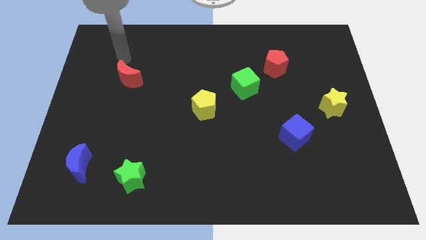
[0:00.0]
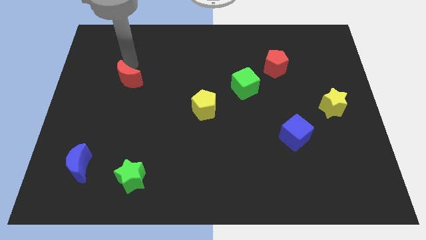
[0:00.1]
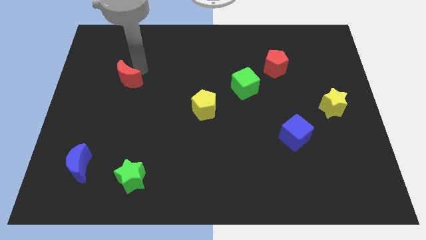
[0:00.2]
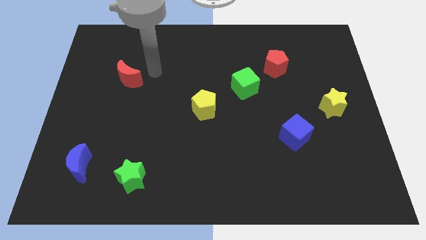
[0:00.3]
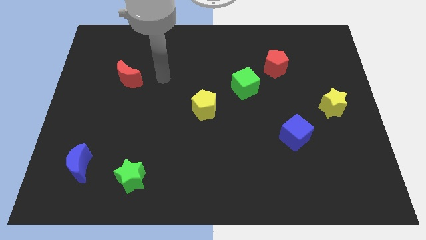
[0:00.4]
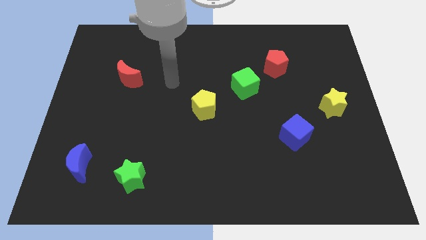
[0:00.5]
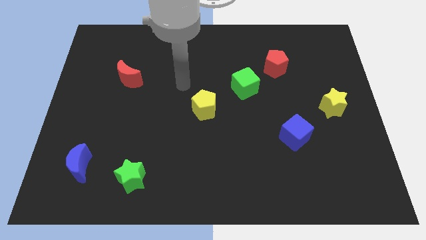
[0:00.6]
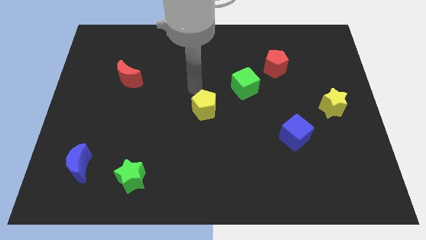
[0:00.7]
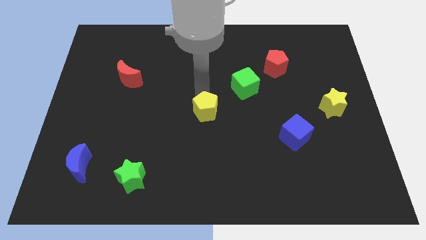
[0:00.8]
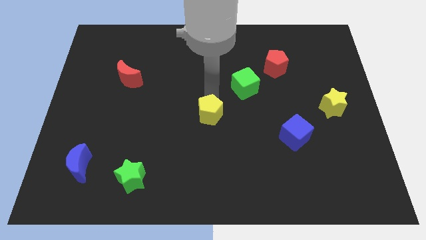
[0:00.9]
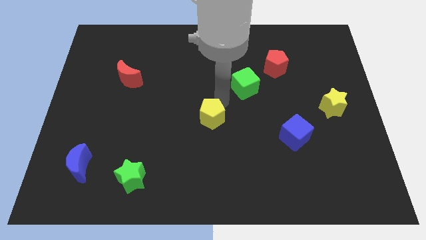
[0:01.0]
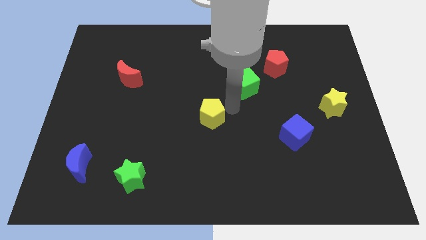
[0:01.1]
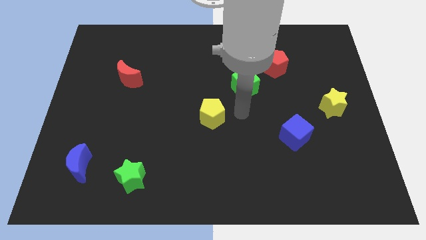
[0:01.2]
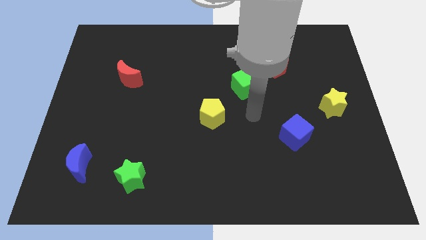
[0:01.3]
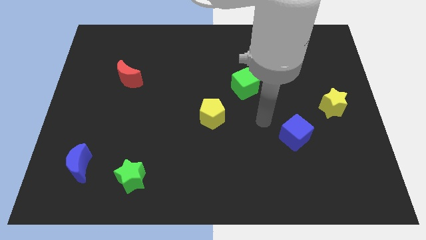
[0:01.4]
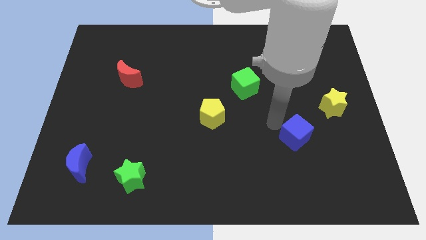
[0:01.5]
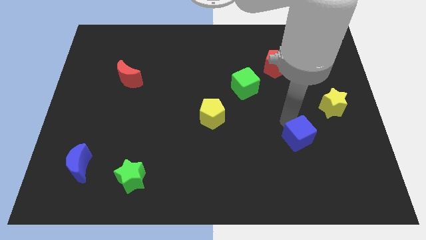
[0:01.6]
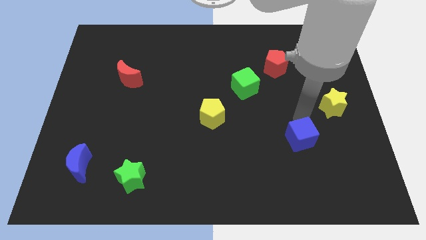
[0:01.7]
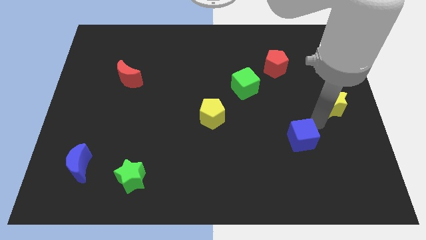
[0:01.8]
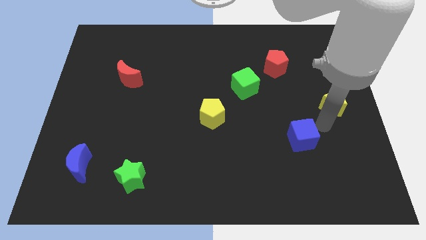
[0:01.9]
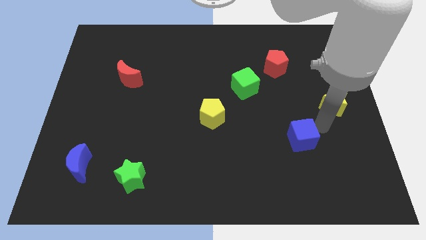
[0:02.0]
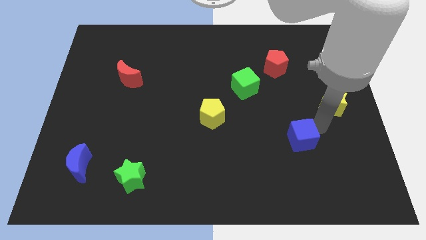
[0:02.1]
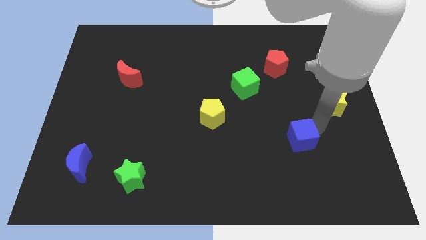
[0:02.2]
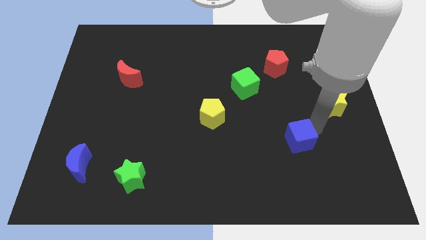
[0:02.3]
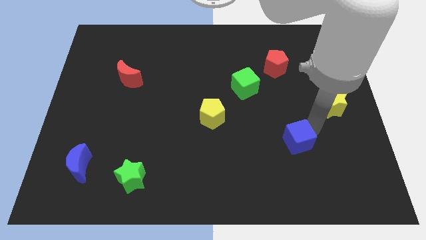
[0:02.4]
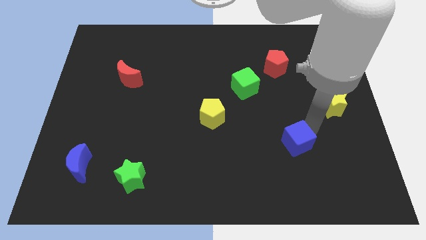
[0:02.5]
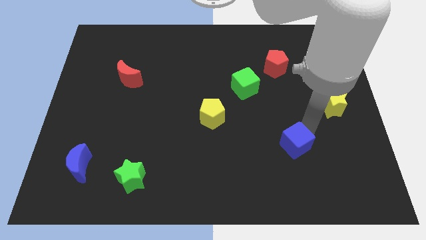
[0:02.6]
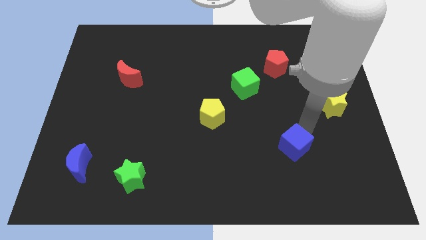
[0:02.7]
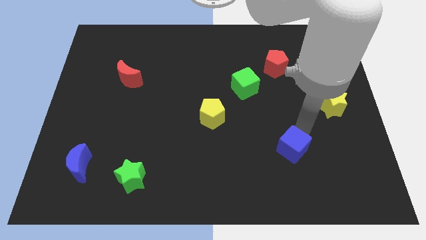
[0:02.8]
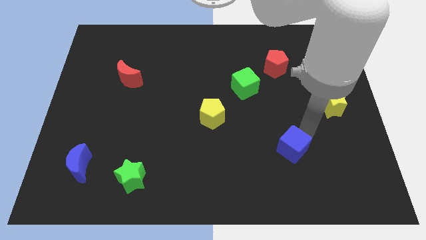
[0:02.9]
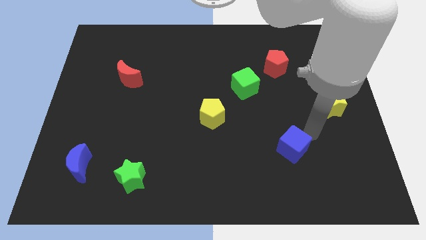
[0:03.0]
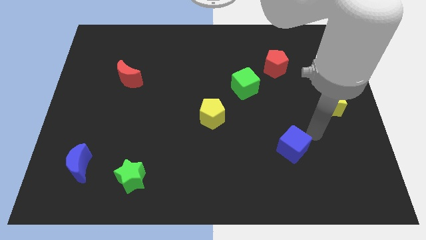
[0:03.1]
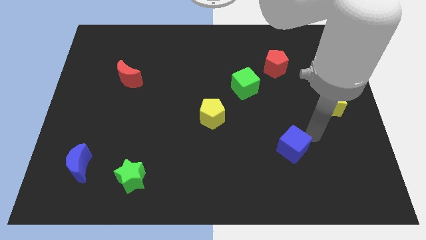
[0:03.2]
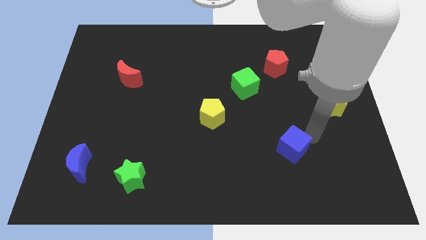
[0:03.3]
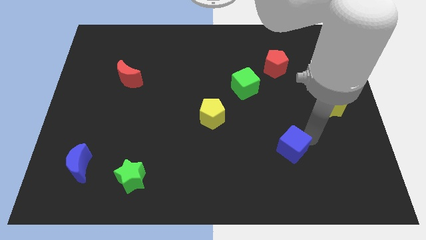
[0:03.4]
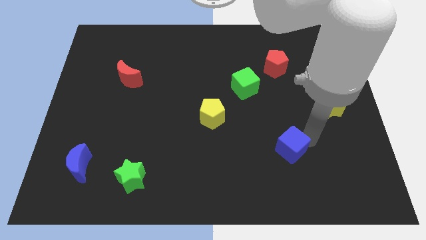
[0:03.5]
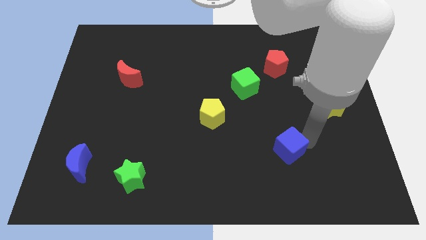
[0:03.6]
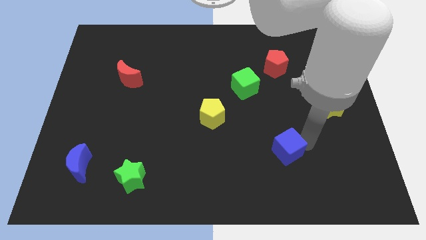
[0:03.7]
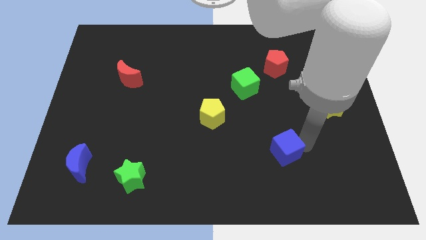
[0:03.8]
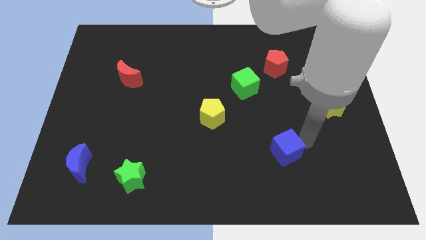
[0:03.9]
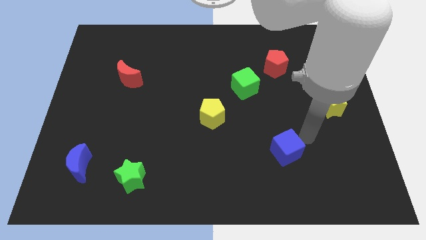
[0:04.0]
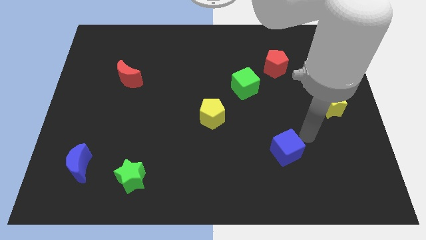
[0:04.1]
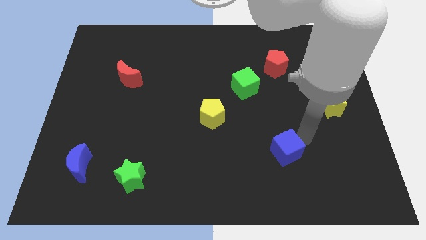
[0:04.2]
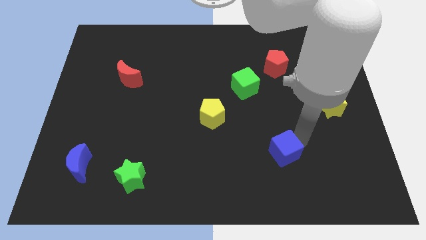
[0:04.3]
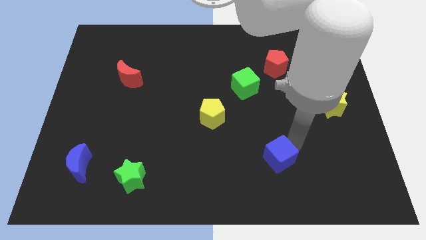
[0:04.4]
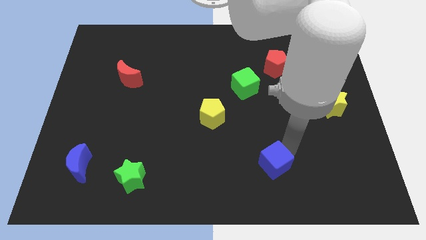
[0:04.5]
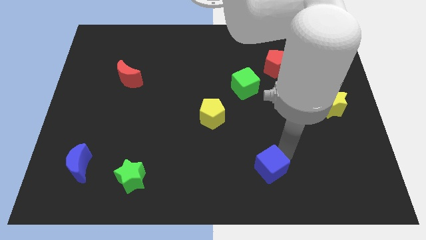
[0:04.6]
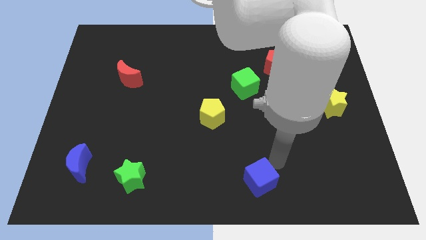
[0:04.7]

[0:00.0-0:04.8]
put the blue cube to the bottom side

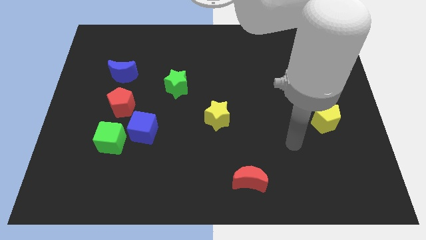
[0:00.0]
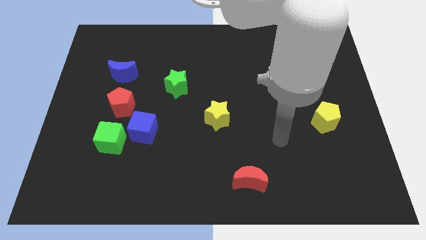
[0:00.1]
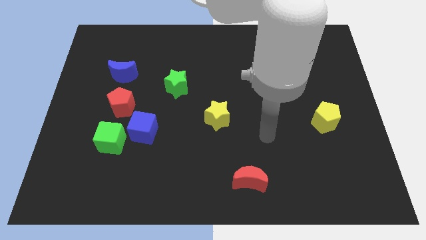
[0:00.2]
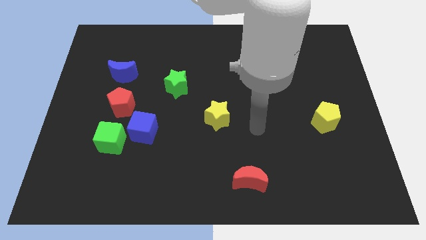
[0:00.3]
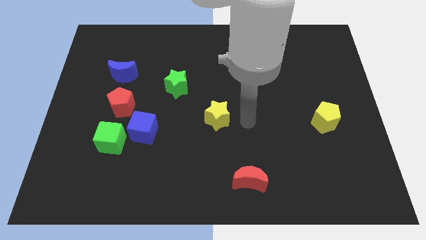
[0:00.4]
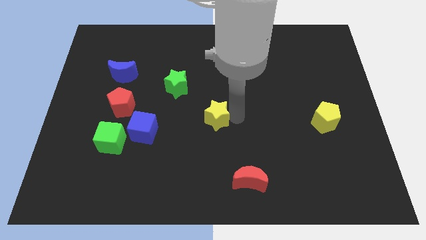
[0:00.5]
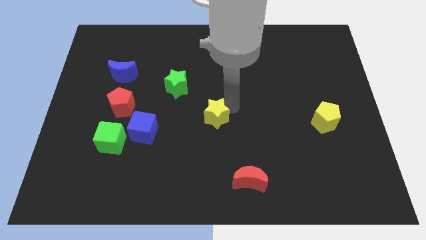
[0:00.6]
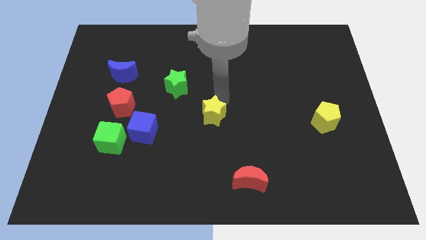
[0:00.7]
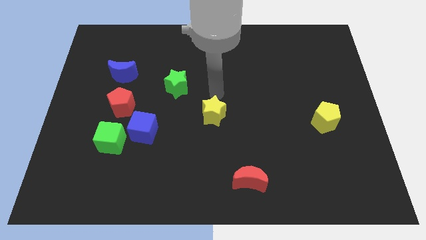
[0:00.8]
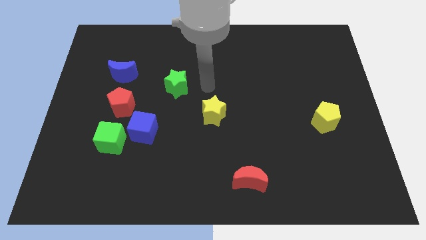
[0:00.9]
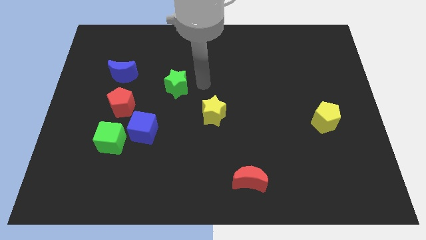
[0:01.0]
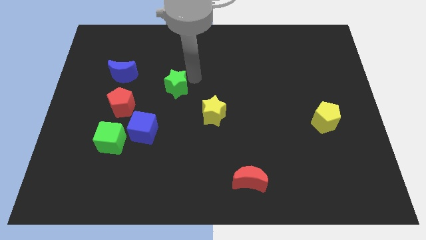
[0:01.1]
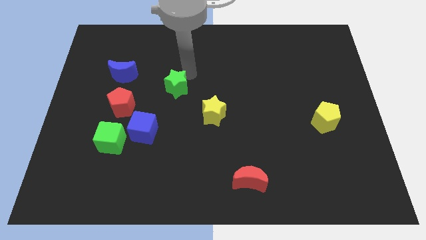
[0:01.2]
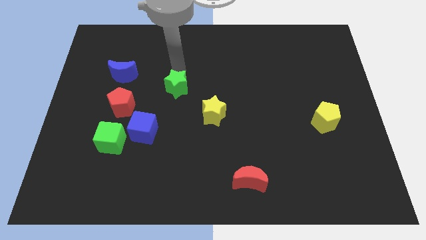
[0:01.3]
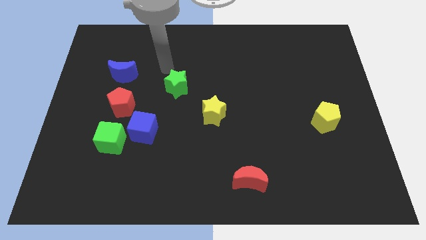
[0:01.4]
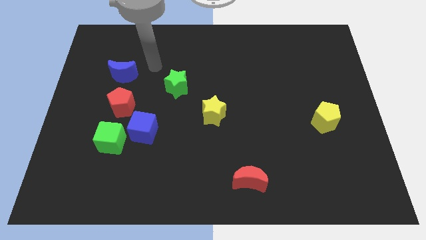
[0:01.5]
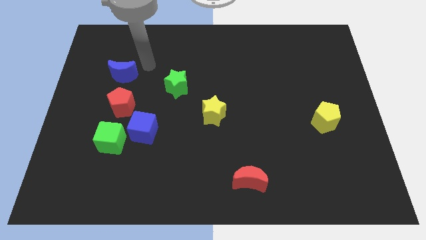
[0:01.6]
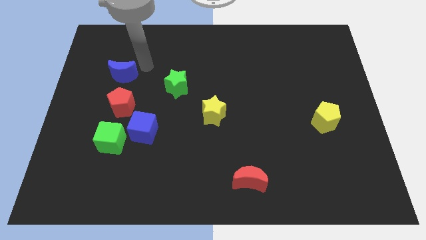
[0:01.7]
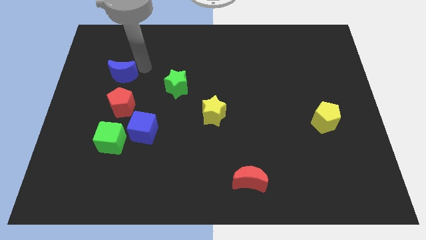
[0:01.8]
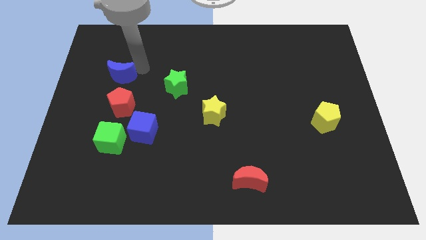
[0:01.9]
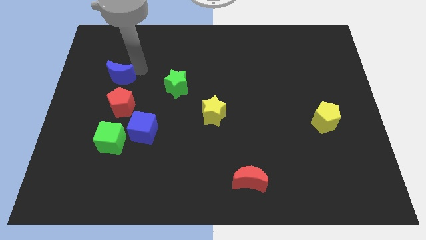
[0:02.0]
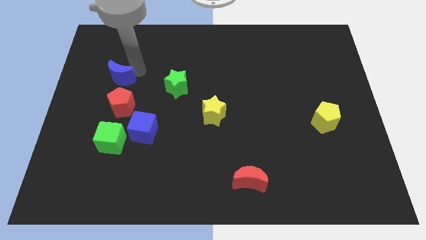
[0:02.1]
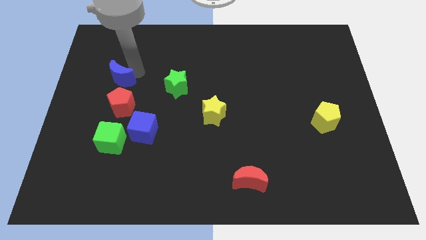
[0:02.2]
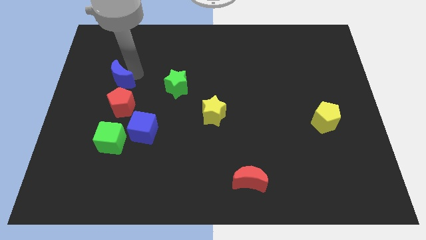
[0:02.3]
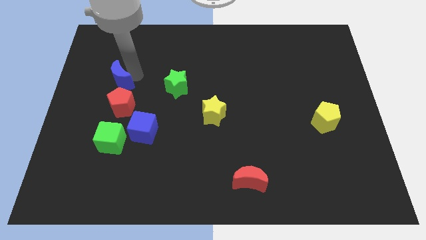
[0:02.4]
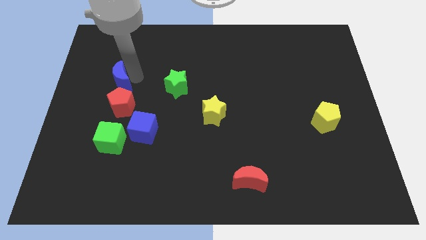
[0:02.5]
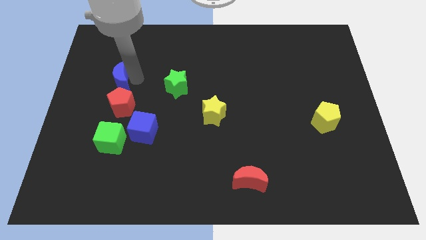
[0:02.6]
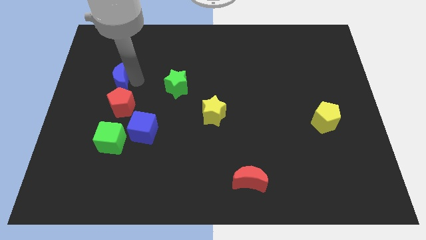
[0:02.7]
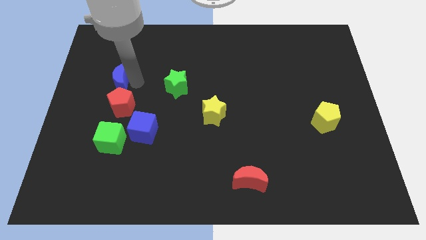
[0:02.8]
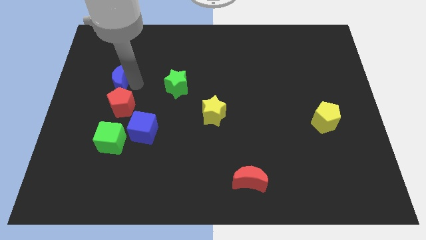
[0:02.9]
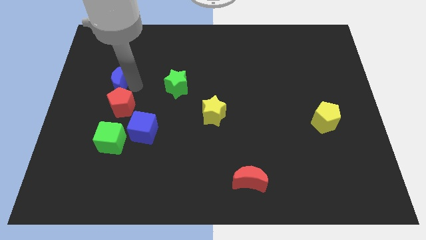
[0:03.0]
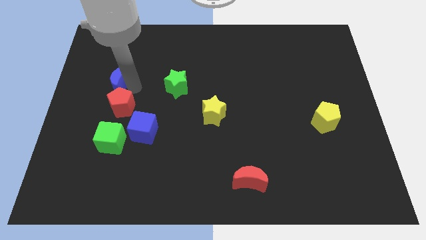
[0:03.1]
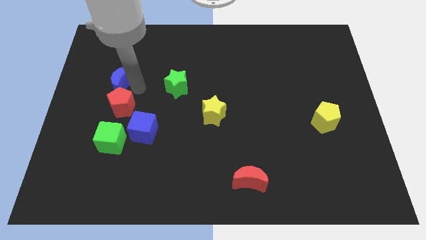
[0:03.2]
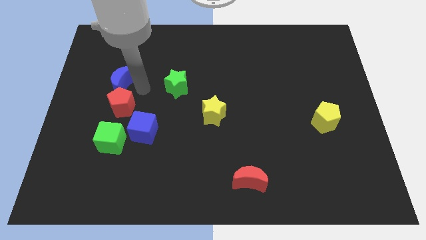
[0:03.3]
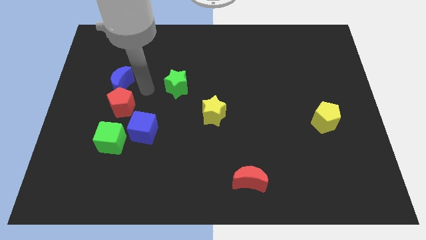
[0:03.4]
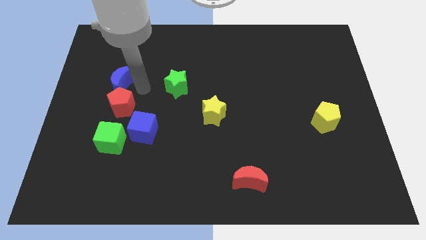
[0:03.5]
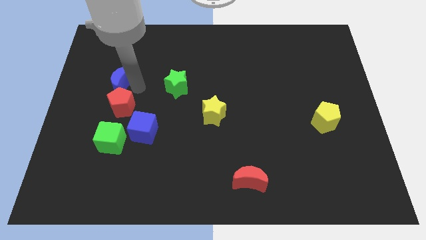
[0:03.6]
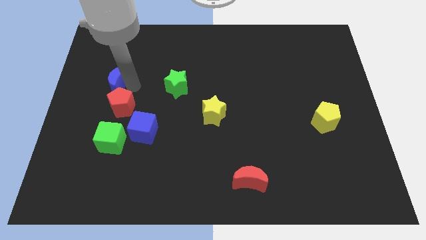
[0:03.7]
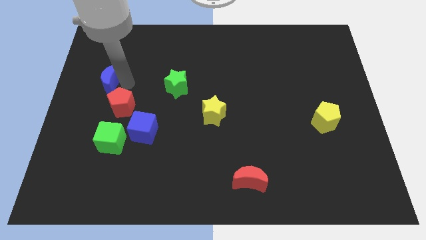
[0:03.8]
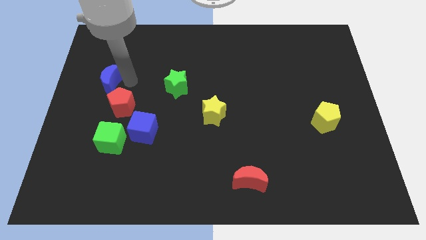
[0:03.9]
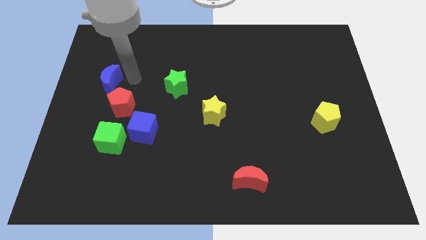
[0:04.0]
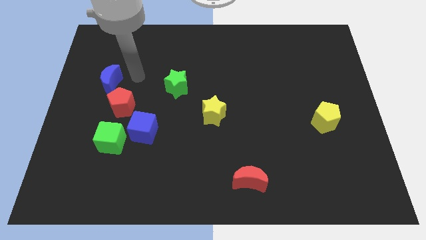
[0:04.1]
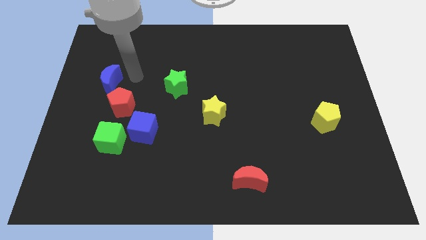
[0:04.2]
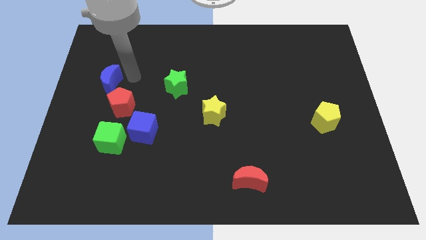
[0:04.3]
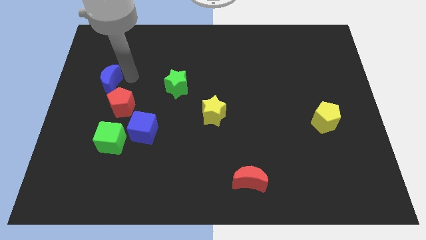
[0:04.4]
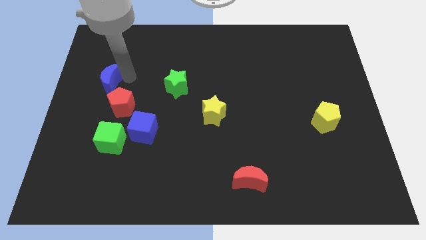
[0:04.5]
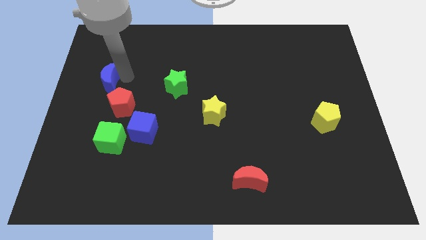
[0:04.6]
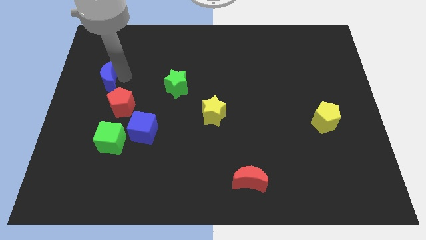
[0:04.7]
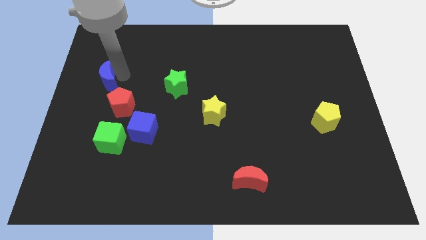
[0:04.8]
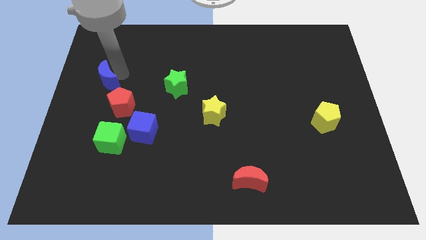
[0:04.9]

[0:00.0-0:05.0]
push the blue moon to the left side of the board
